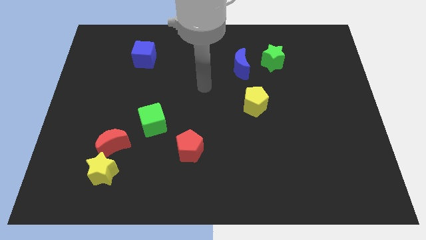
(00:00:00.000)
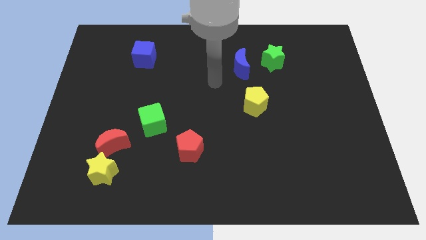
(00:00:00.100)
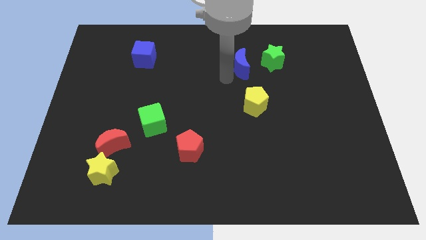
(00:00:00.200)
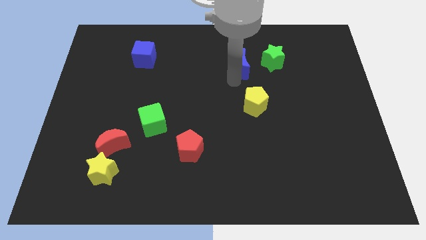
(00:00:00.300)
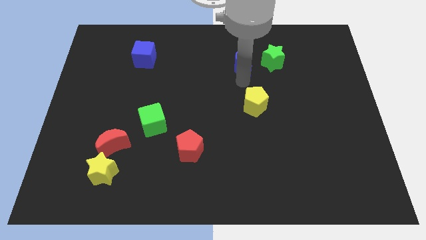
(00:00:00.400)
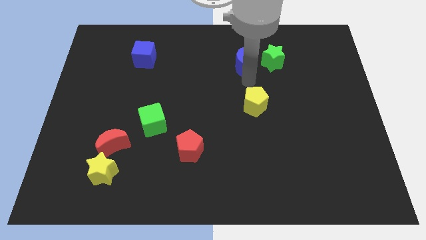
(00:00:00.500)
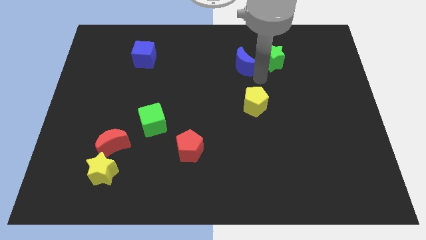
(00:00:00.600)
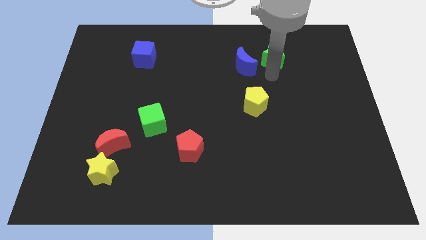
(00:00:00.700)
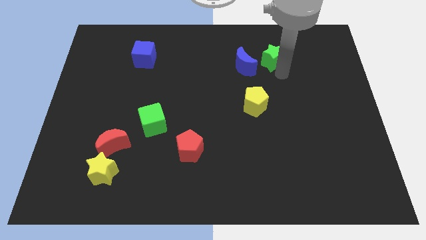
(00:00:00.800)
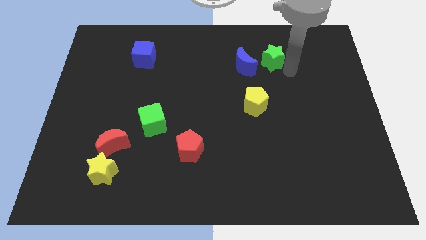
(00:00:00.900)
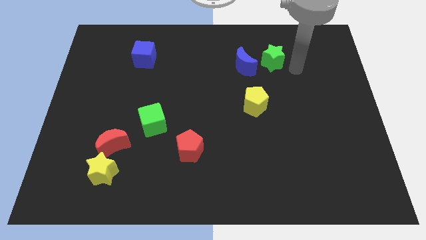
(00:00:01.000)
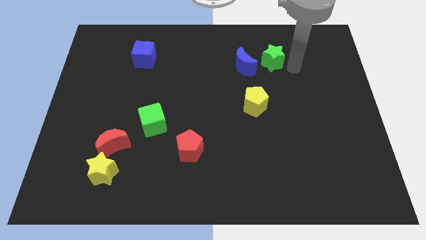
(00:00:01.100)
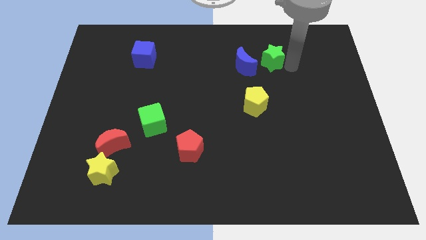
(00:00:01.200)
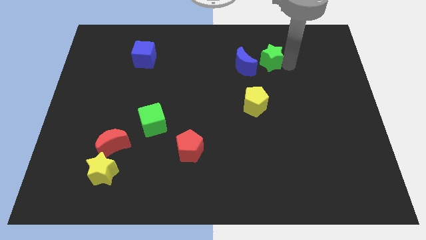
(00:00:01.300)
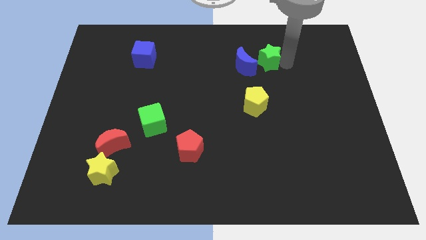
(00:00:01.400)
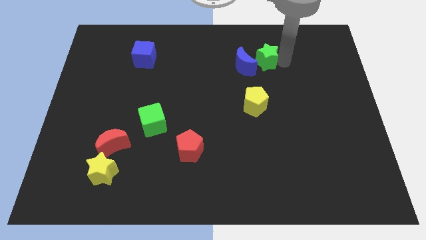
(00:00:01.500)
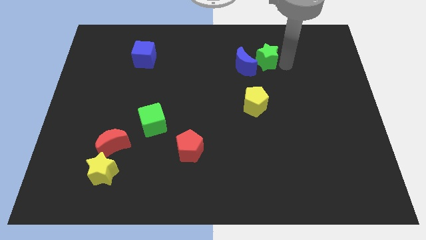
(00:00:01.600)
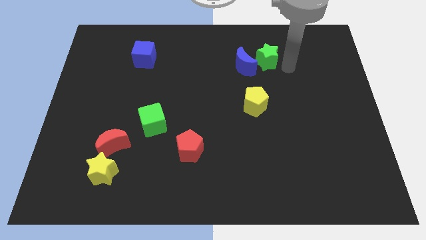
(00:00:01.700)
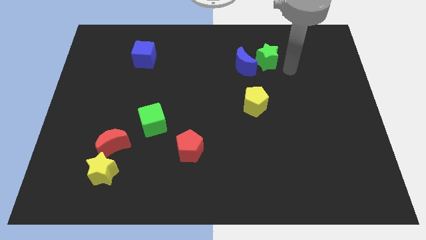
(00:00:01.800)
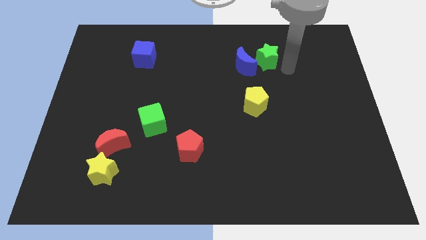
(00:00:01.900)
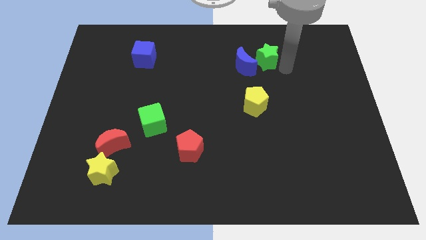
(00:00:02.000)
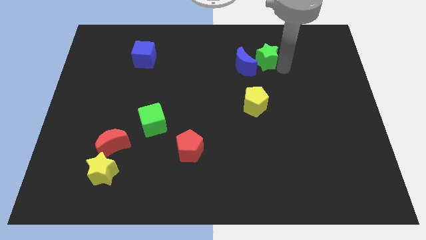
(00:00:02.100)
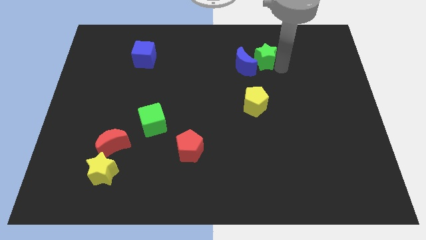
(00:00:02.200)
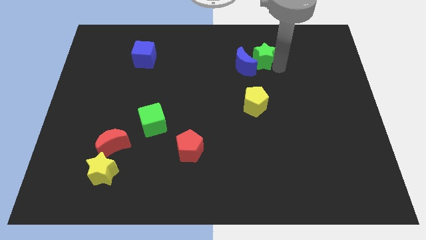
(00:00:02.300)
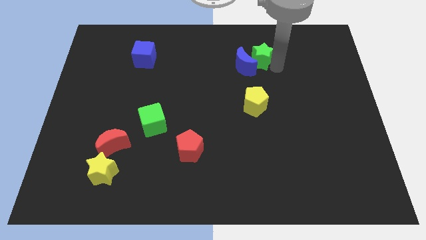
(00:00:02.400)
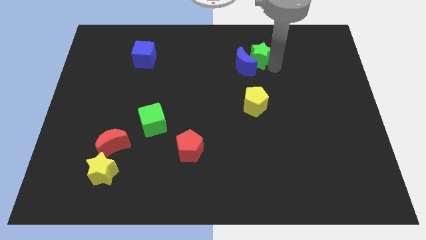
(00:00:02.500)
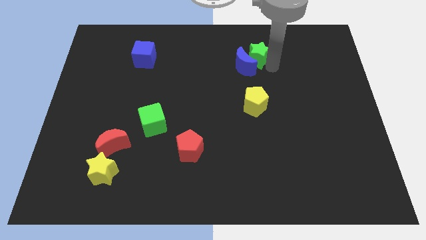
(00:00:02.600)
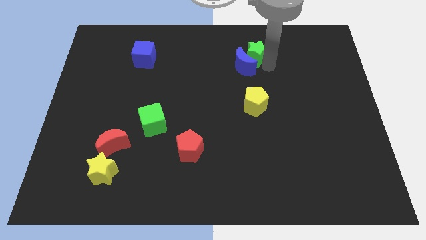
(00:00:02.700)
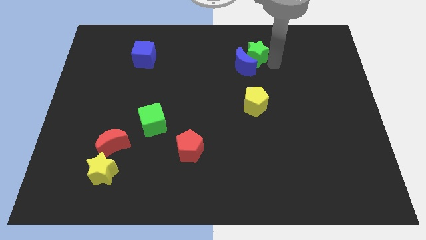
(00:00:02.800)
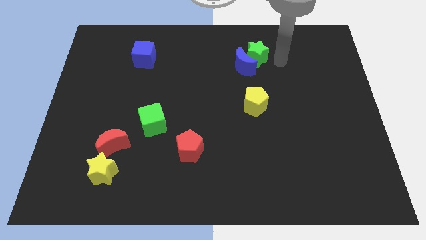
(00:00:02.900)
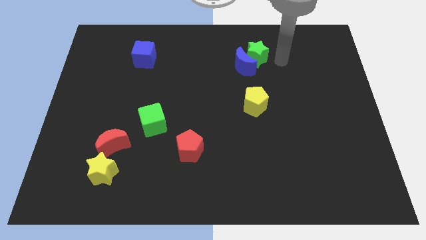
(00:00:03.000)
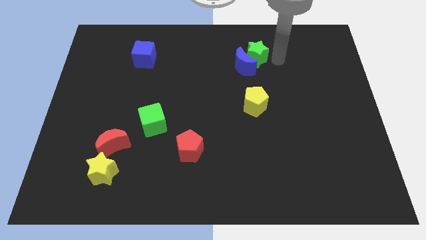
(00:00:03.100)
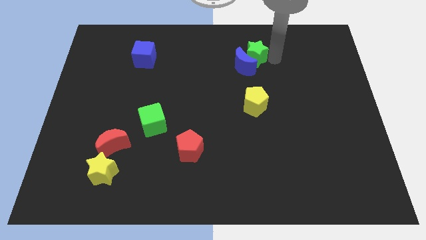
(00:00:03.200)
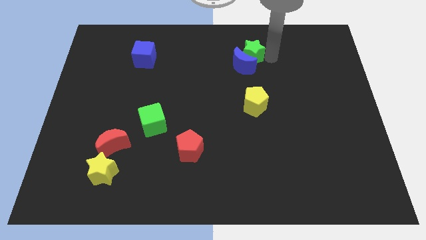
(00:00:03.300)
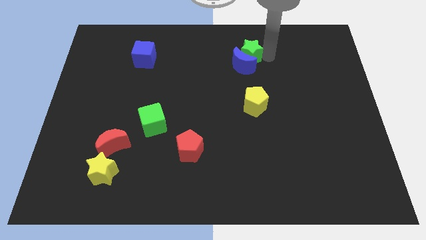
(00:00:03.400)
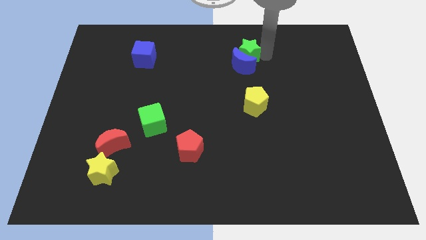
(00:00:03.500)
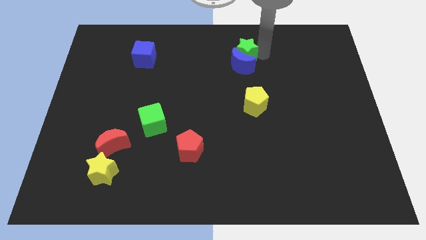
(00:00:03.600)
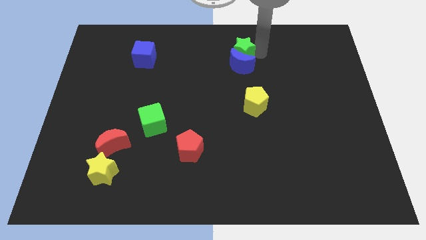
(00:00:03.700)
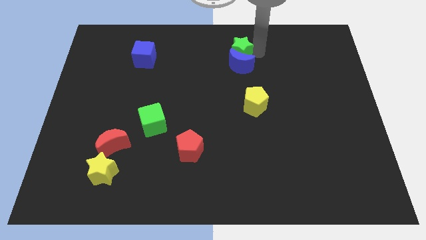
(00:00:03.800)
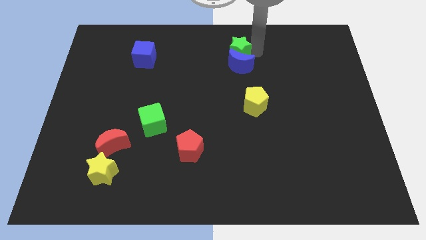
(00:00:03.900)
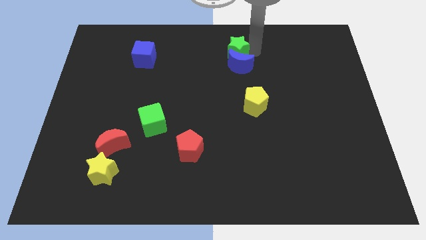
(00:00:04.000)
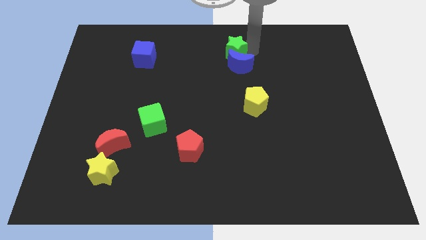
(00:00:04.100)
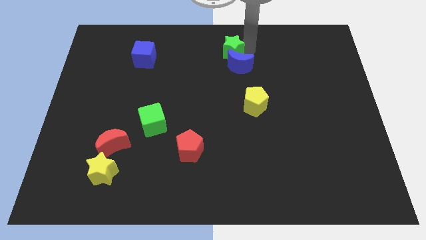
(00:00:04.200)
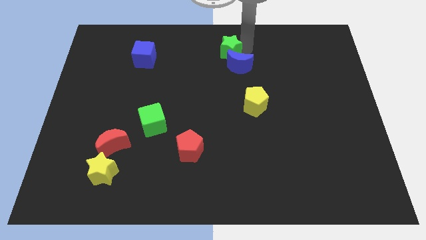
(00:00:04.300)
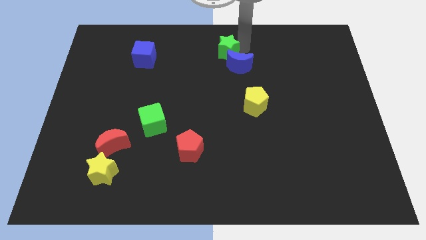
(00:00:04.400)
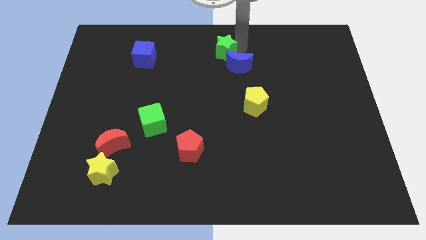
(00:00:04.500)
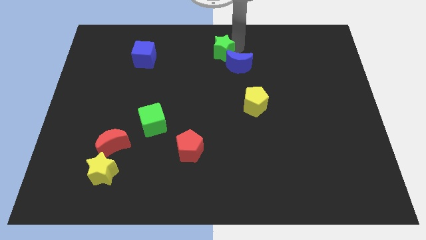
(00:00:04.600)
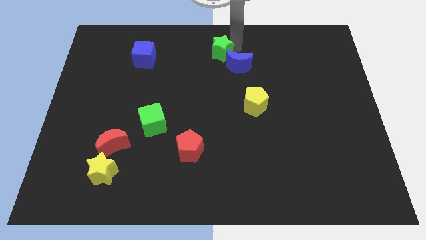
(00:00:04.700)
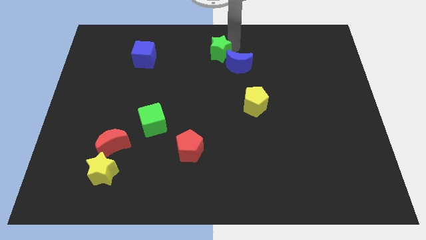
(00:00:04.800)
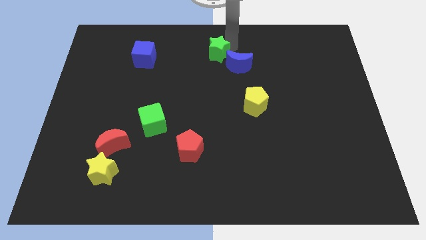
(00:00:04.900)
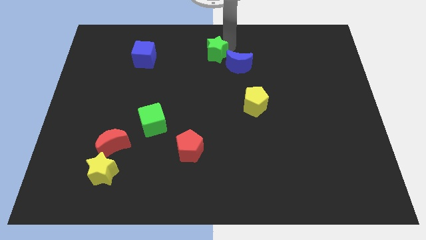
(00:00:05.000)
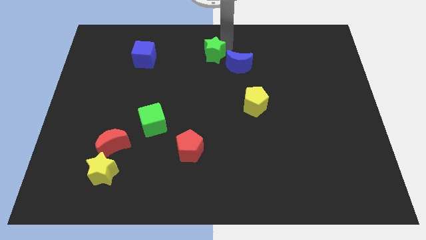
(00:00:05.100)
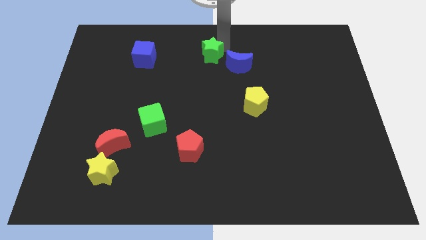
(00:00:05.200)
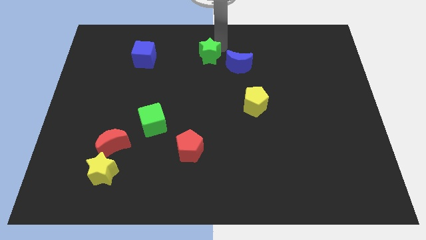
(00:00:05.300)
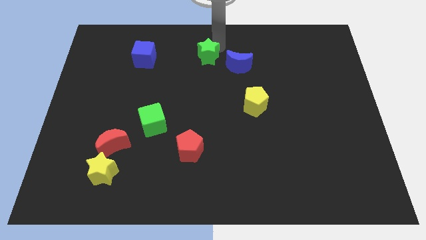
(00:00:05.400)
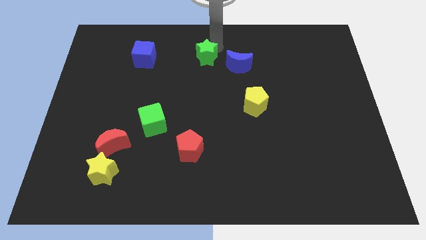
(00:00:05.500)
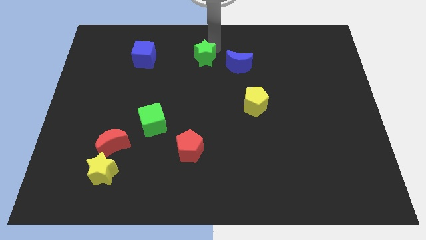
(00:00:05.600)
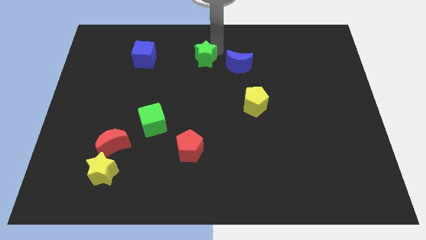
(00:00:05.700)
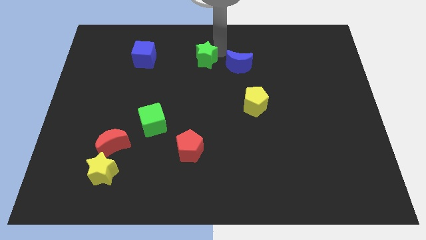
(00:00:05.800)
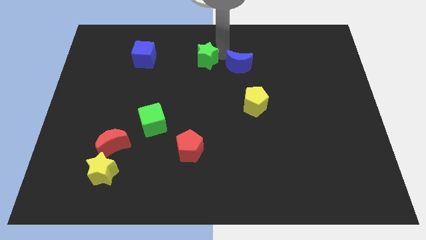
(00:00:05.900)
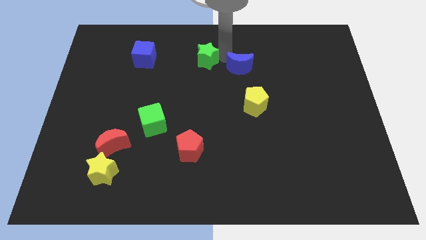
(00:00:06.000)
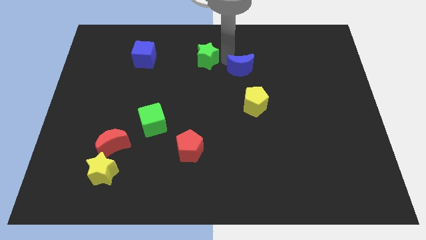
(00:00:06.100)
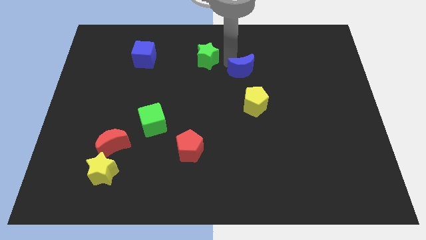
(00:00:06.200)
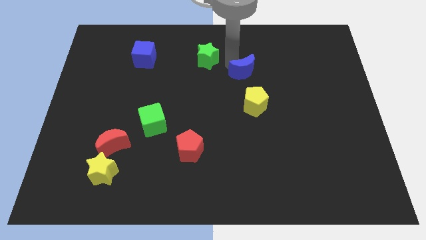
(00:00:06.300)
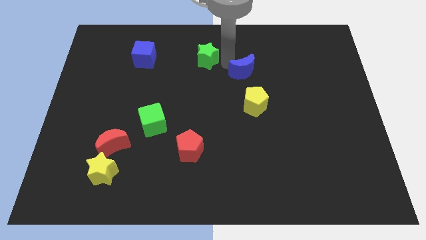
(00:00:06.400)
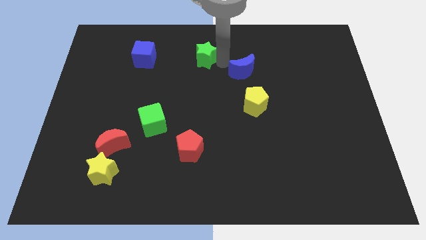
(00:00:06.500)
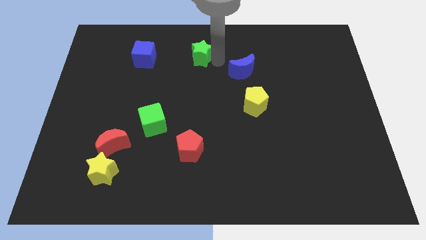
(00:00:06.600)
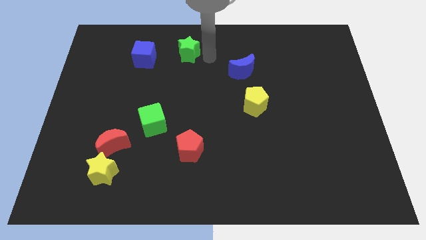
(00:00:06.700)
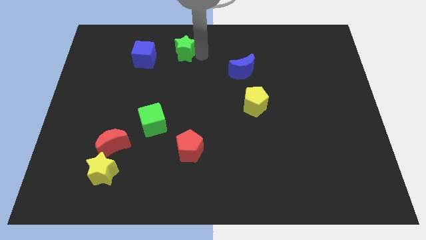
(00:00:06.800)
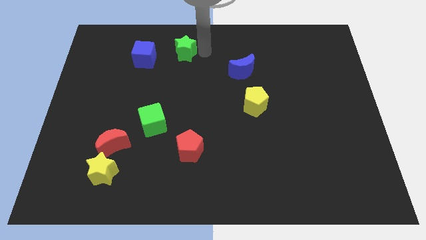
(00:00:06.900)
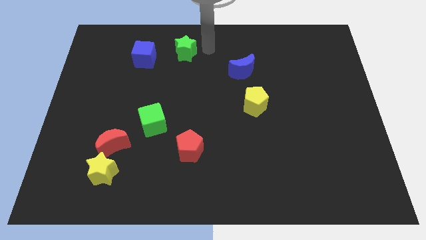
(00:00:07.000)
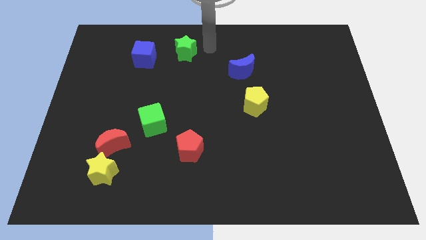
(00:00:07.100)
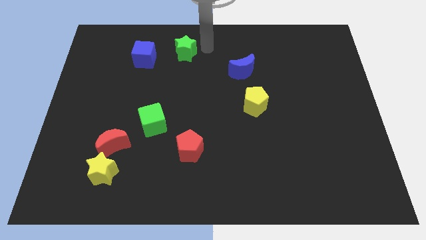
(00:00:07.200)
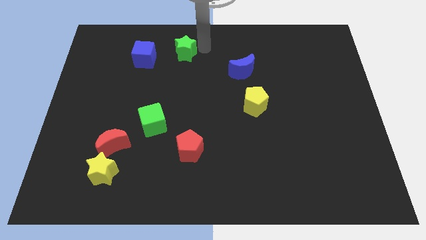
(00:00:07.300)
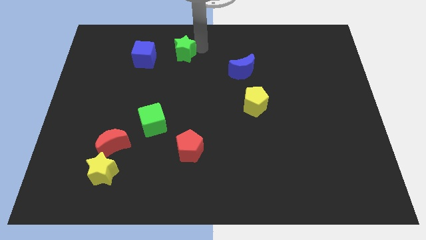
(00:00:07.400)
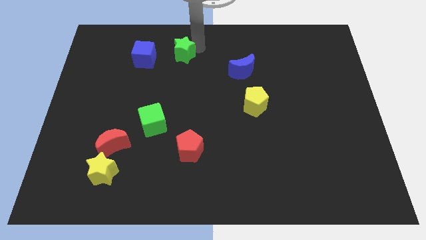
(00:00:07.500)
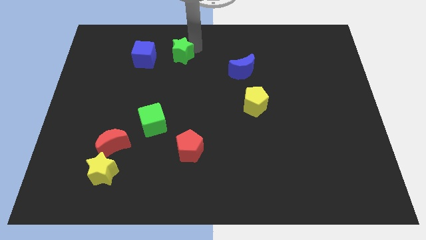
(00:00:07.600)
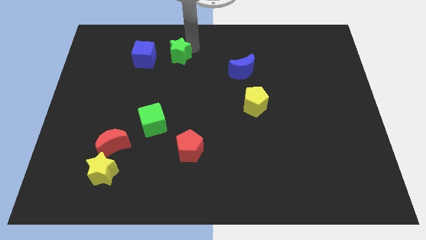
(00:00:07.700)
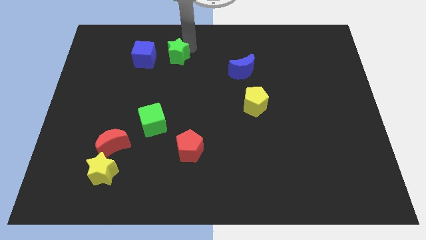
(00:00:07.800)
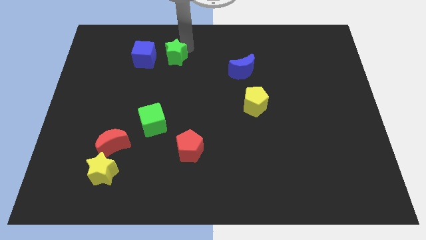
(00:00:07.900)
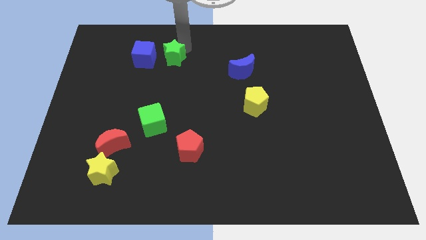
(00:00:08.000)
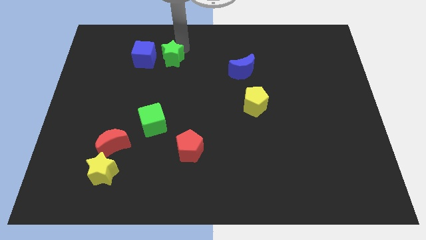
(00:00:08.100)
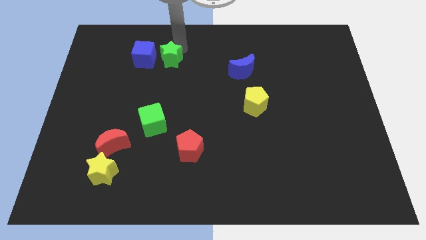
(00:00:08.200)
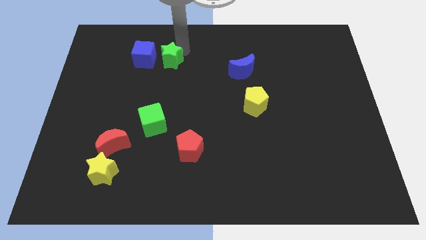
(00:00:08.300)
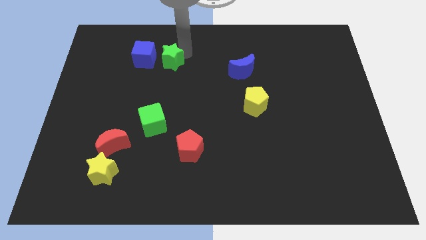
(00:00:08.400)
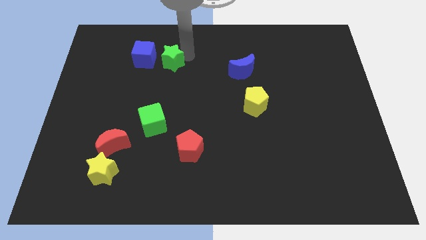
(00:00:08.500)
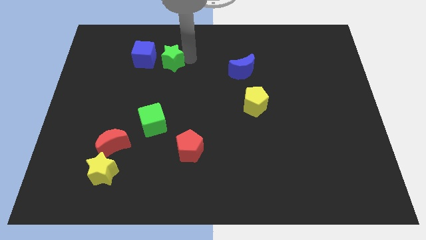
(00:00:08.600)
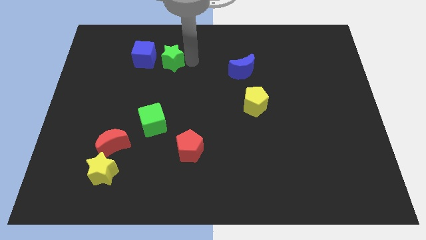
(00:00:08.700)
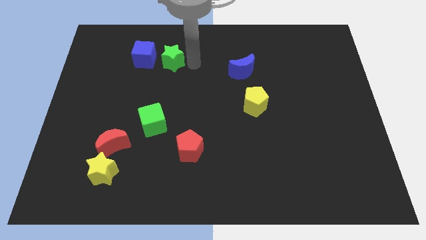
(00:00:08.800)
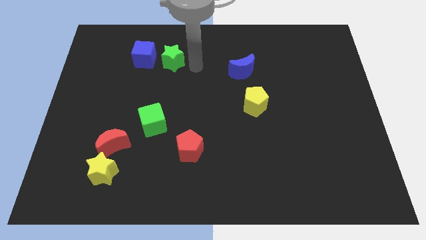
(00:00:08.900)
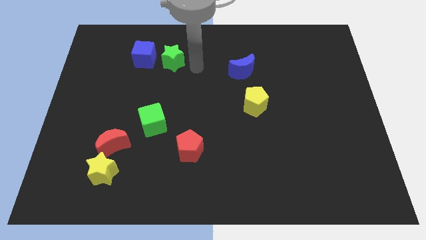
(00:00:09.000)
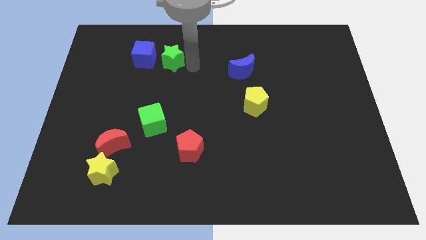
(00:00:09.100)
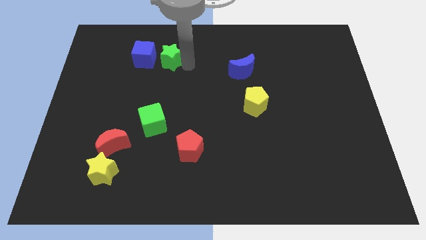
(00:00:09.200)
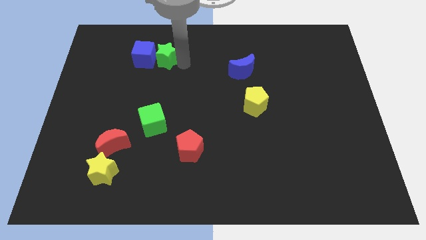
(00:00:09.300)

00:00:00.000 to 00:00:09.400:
move the green star to the blue cube
